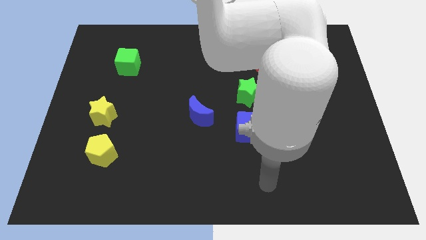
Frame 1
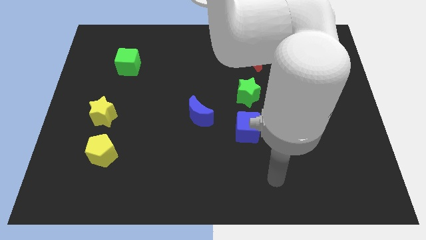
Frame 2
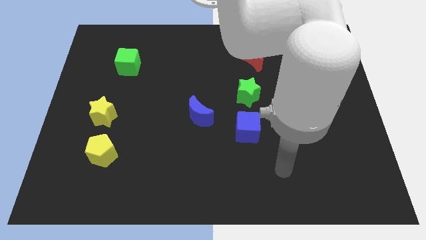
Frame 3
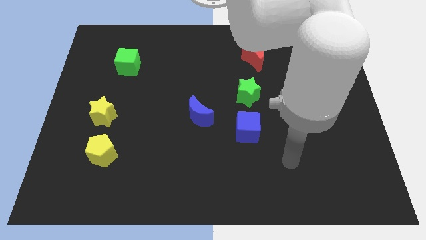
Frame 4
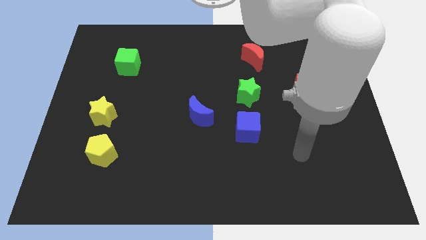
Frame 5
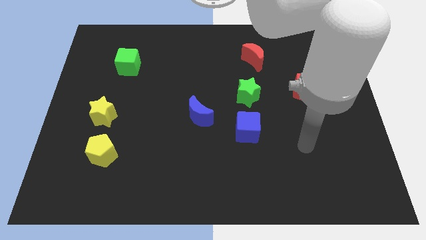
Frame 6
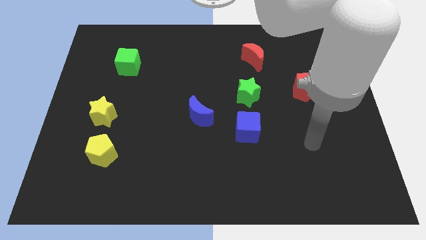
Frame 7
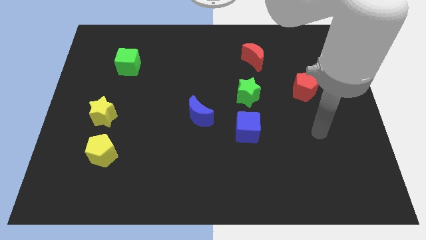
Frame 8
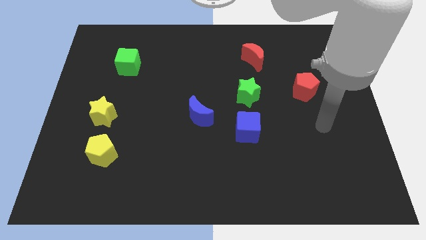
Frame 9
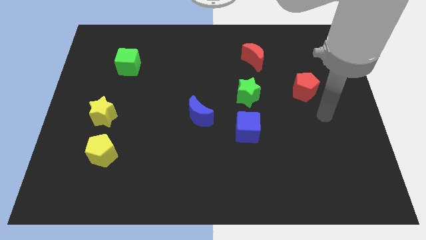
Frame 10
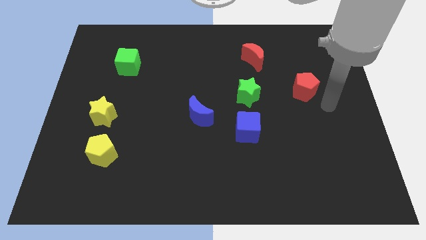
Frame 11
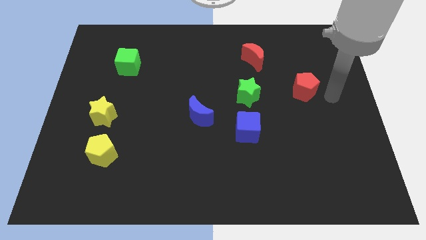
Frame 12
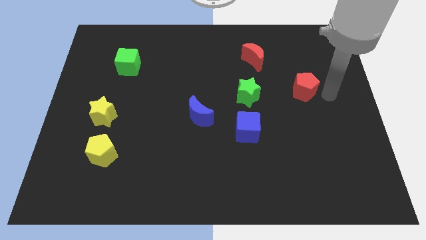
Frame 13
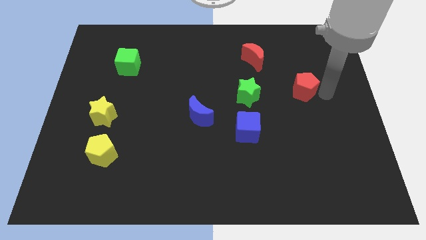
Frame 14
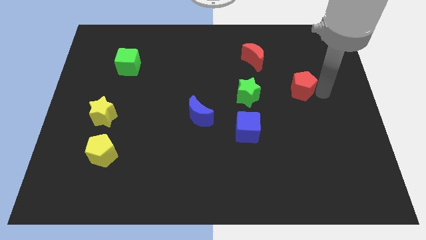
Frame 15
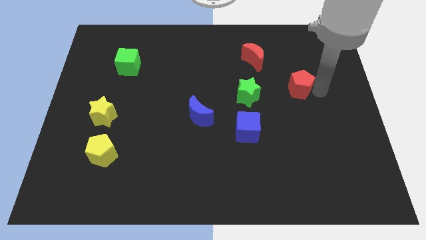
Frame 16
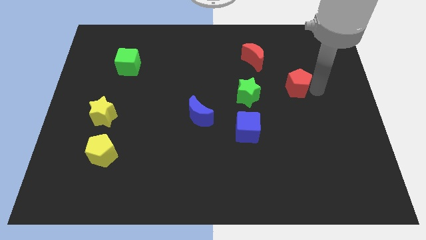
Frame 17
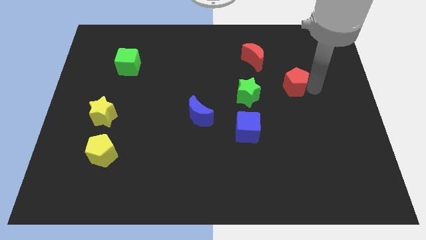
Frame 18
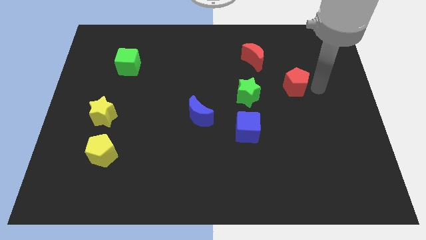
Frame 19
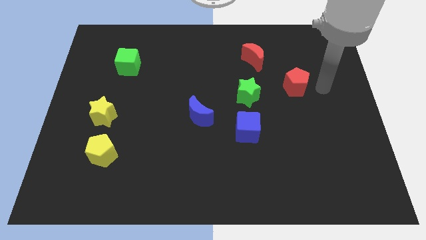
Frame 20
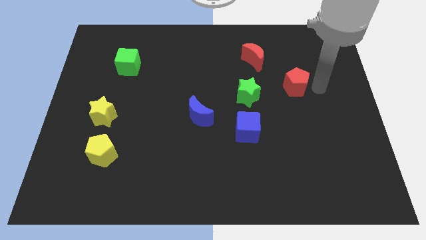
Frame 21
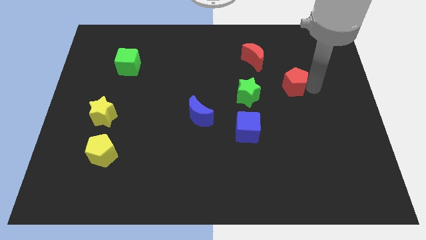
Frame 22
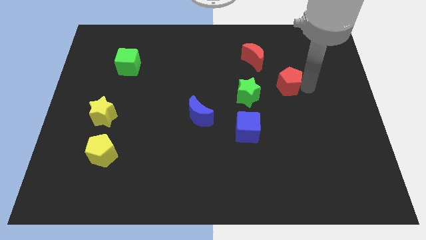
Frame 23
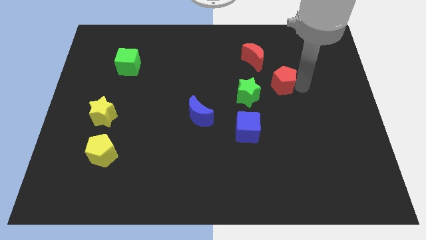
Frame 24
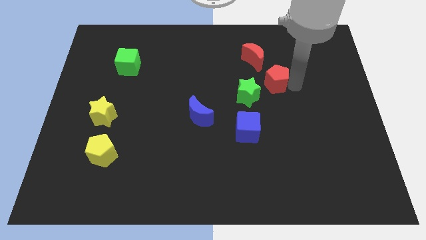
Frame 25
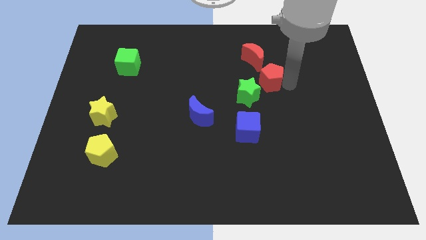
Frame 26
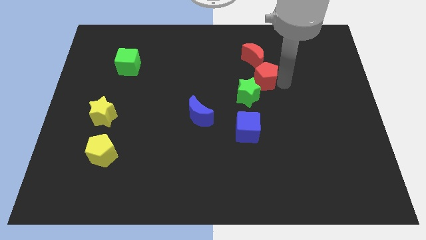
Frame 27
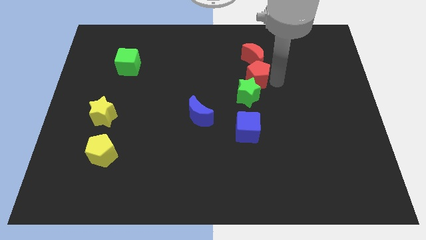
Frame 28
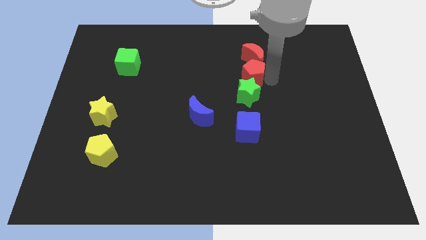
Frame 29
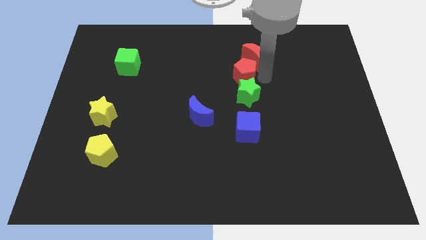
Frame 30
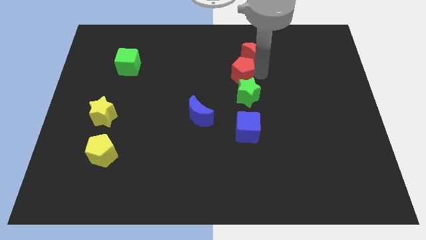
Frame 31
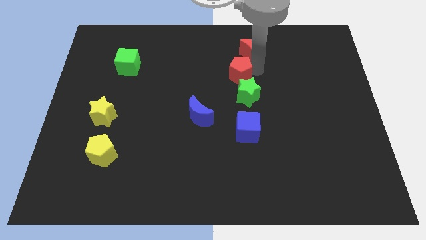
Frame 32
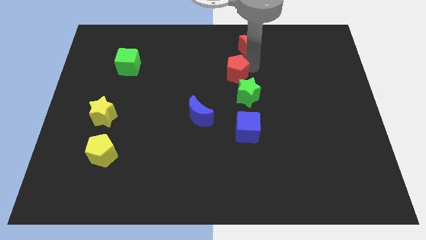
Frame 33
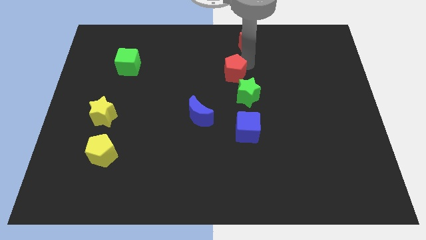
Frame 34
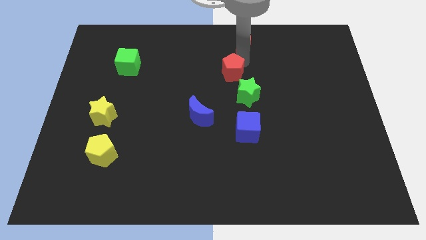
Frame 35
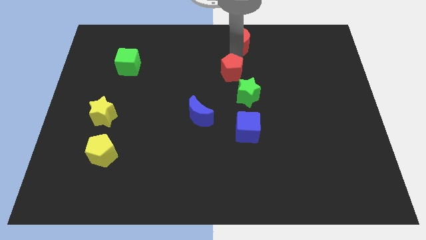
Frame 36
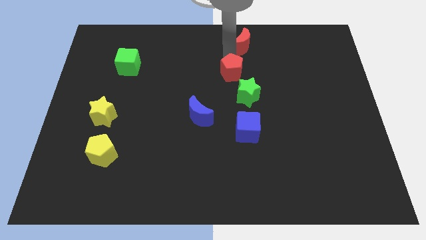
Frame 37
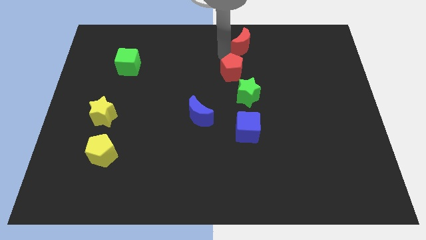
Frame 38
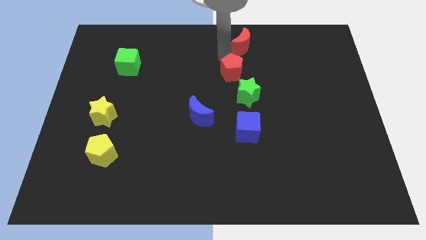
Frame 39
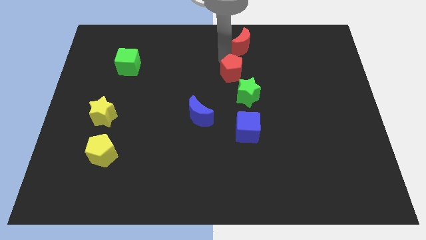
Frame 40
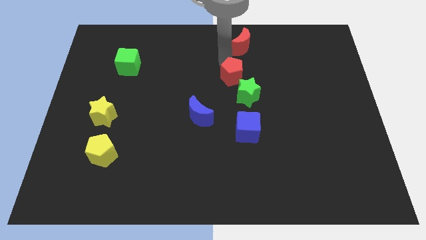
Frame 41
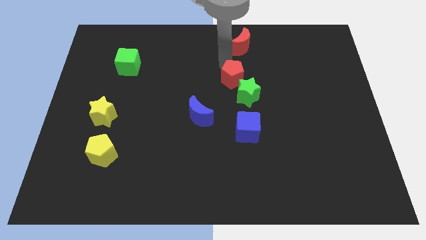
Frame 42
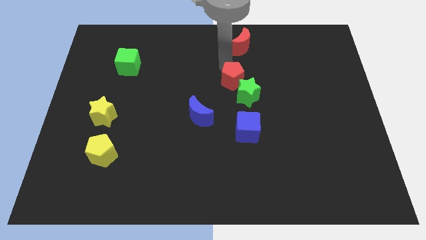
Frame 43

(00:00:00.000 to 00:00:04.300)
push the red pentagon above the blue cube

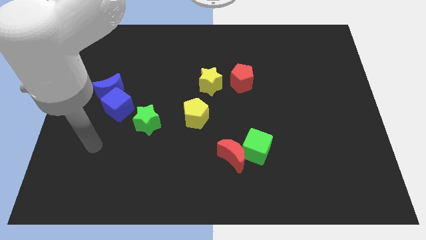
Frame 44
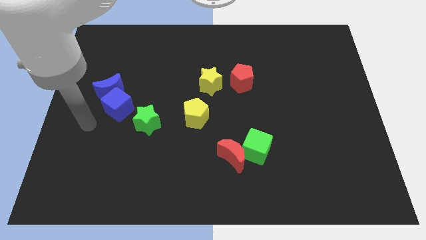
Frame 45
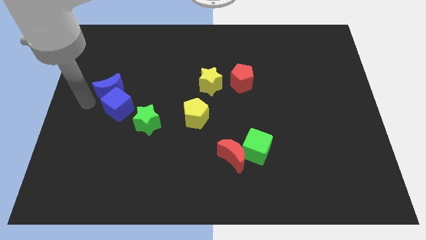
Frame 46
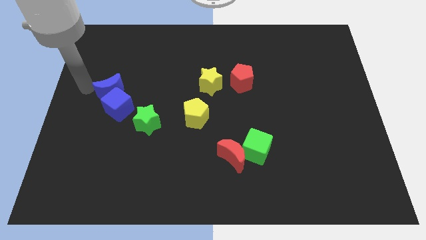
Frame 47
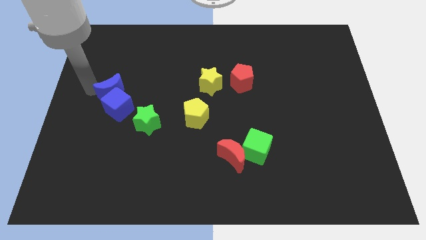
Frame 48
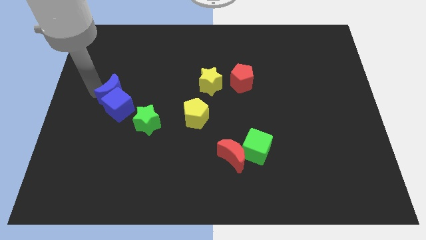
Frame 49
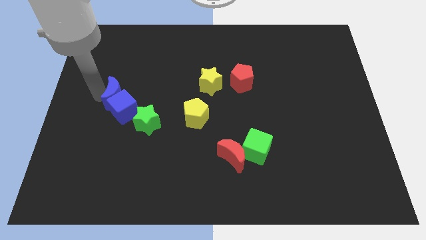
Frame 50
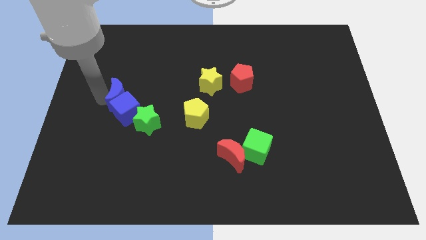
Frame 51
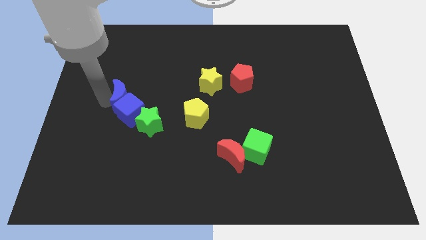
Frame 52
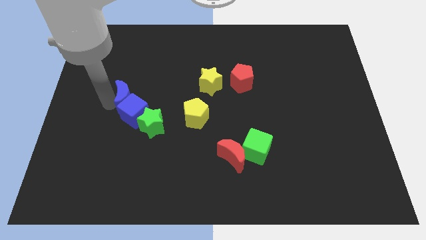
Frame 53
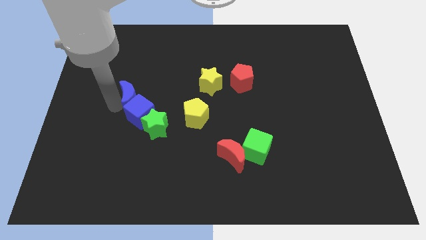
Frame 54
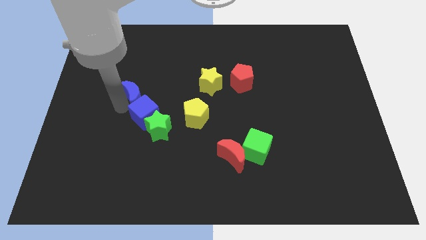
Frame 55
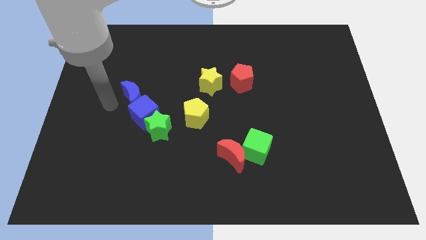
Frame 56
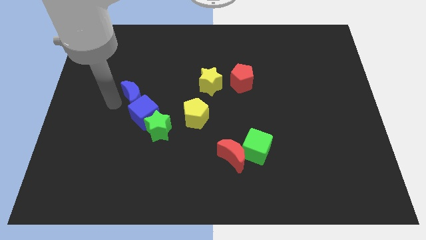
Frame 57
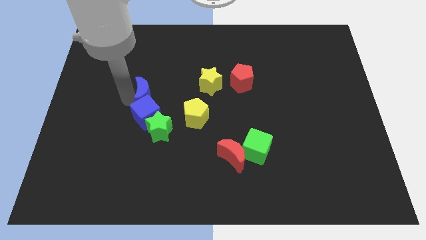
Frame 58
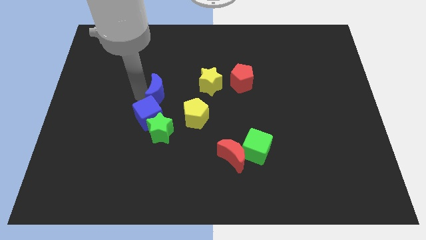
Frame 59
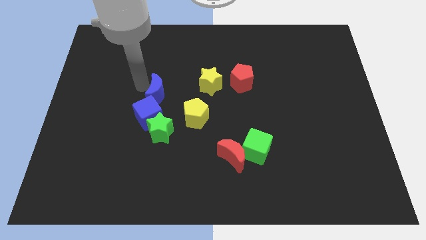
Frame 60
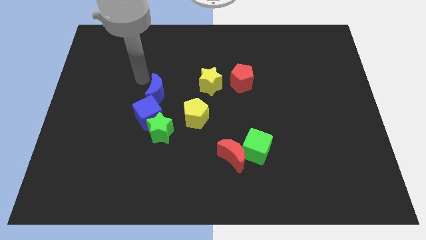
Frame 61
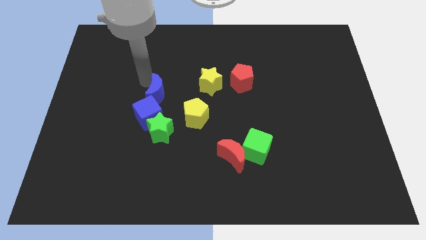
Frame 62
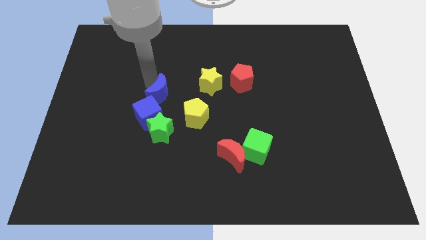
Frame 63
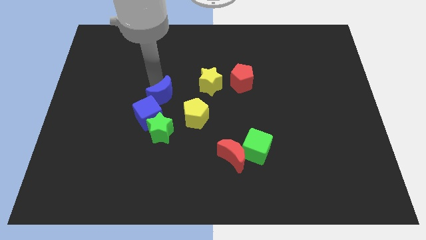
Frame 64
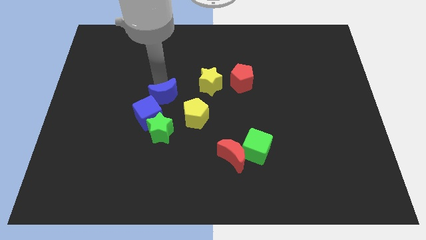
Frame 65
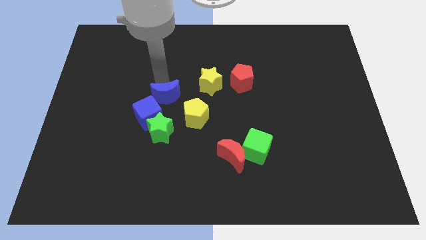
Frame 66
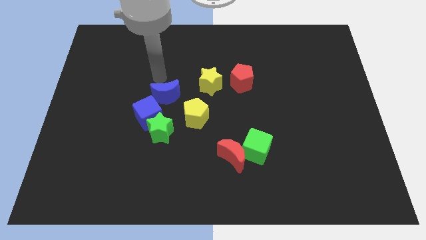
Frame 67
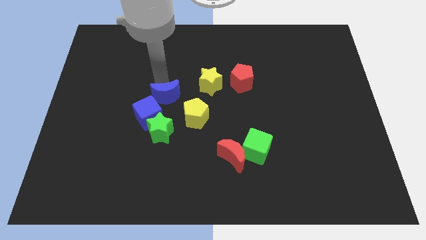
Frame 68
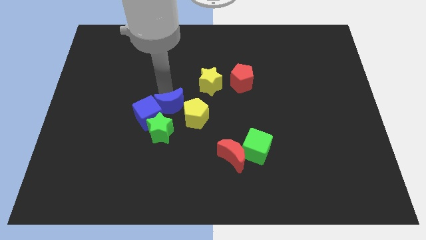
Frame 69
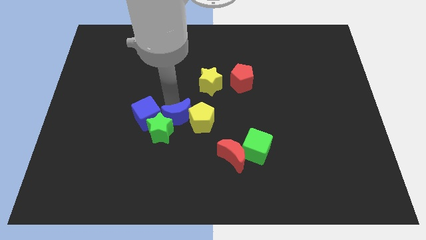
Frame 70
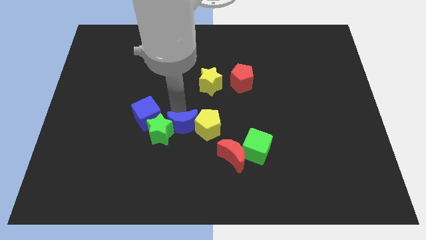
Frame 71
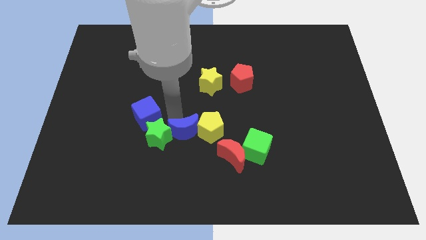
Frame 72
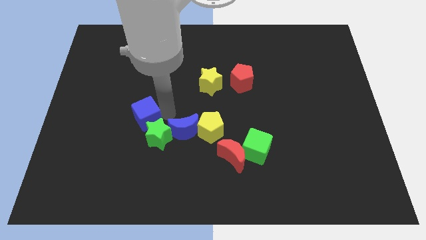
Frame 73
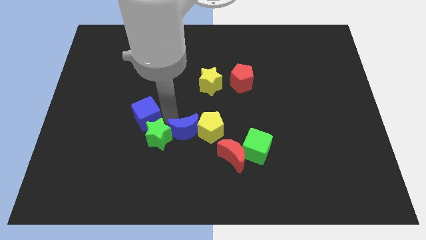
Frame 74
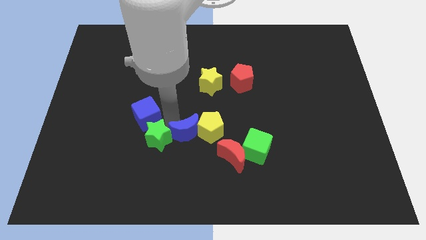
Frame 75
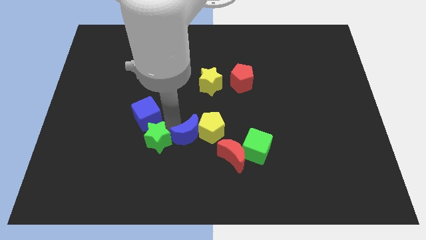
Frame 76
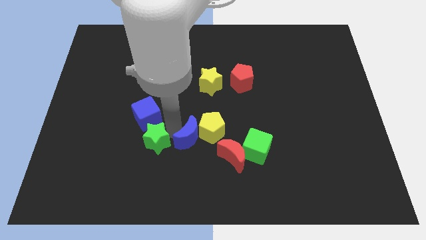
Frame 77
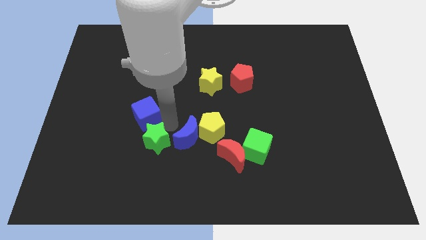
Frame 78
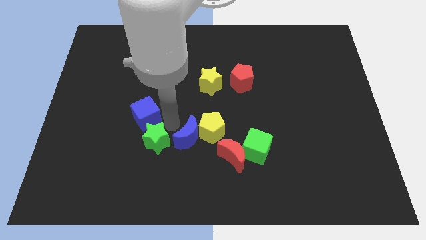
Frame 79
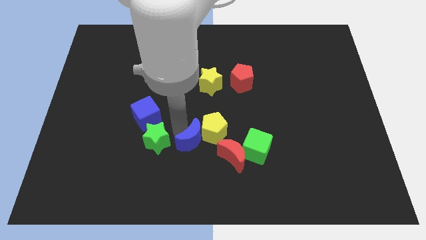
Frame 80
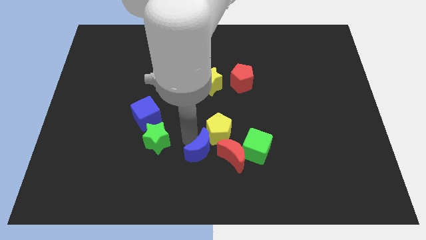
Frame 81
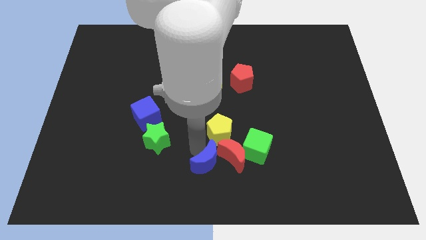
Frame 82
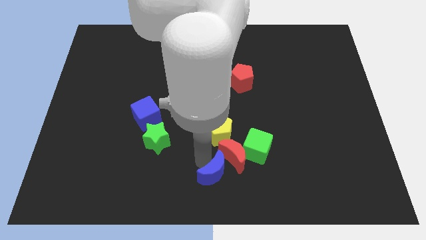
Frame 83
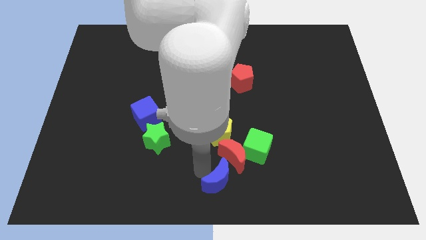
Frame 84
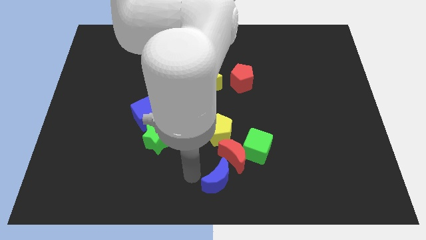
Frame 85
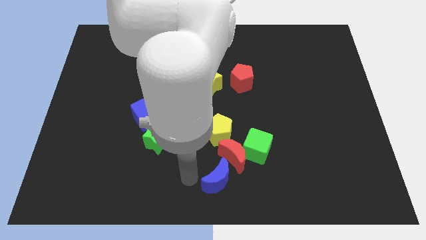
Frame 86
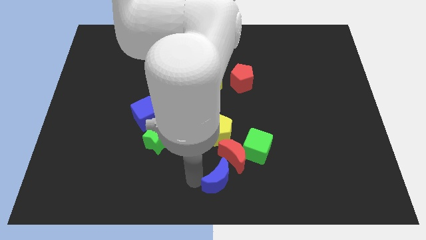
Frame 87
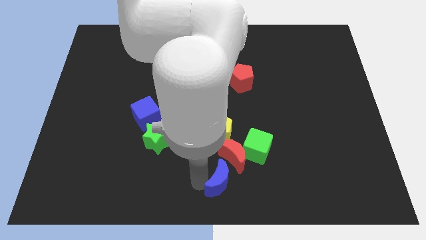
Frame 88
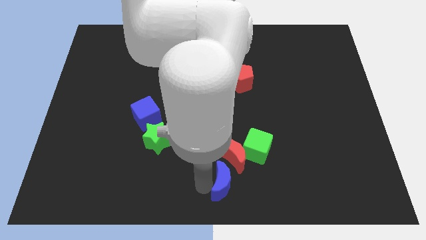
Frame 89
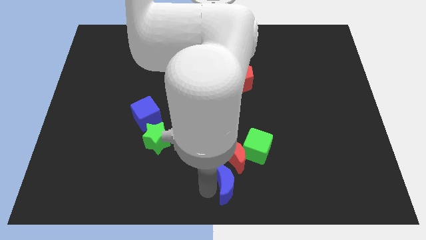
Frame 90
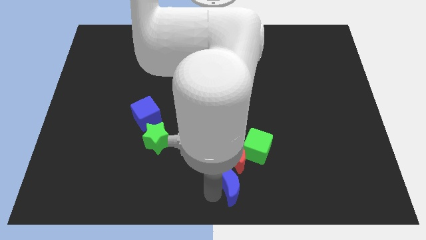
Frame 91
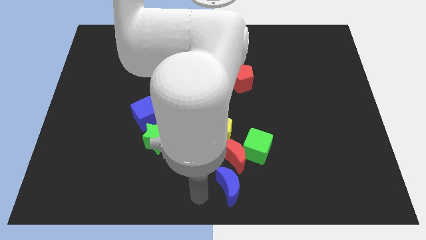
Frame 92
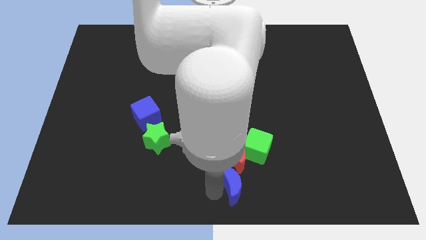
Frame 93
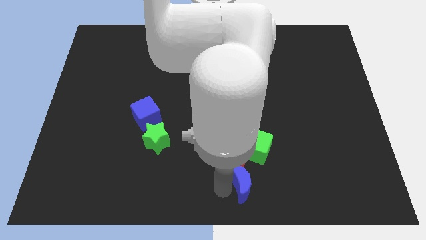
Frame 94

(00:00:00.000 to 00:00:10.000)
slide the blue moon to the bottom right side of the red moon
